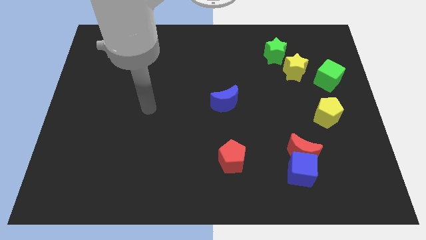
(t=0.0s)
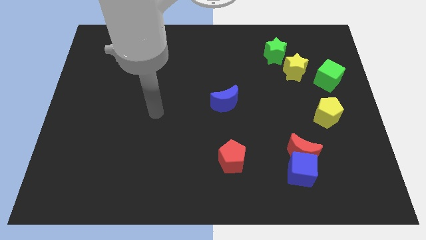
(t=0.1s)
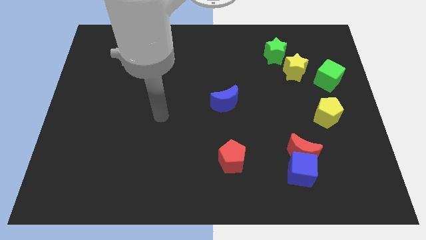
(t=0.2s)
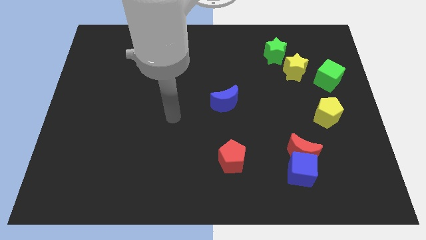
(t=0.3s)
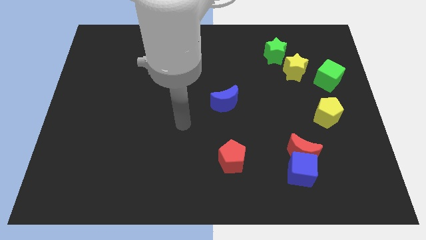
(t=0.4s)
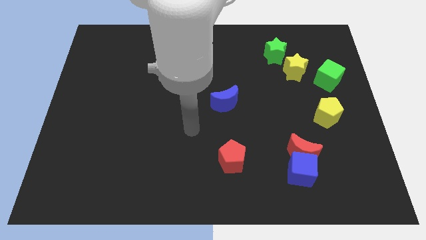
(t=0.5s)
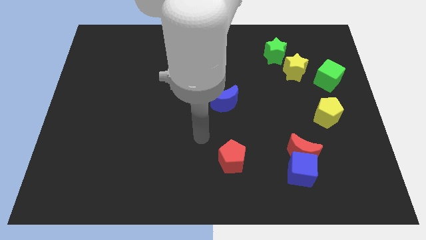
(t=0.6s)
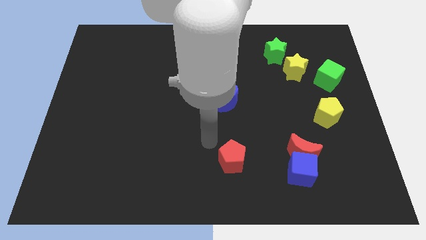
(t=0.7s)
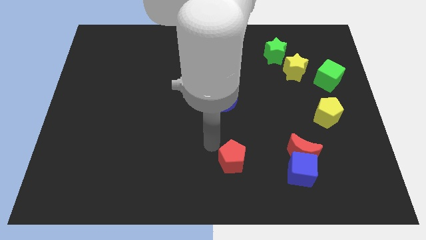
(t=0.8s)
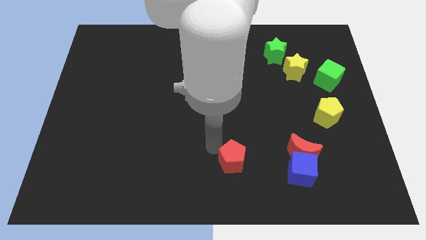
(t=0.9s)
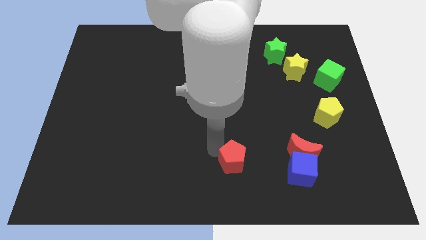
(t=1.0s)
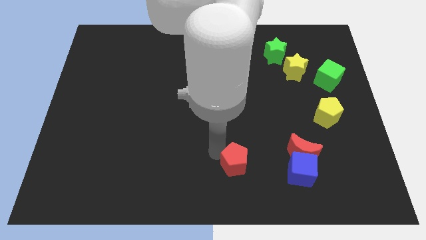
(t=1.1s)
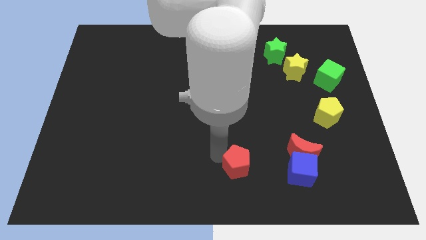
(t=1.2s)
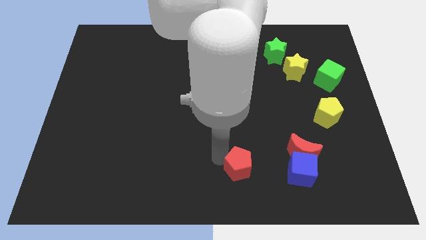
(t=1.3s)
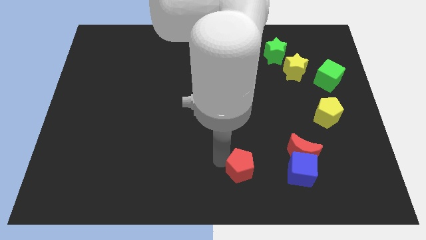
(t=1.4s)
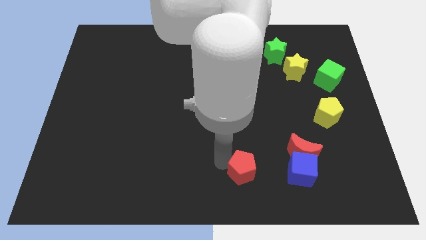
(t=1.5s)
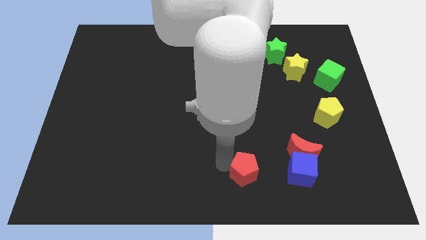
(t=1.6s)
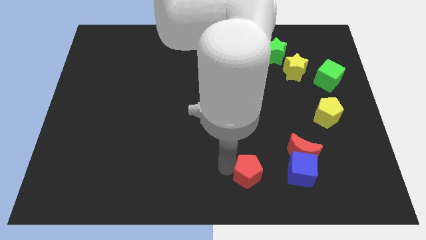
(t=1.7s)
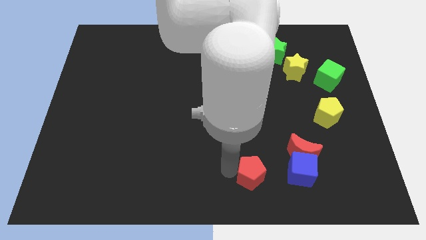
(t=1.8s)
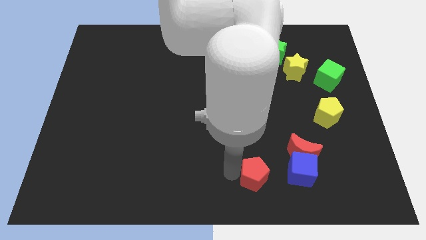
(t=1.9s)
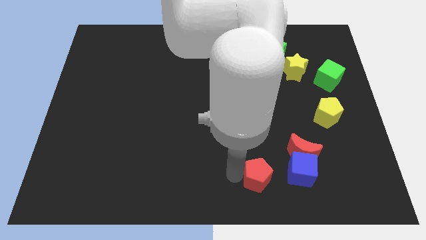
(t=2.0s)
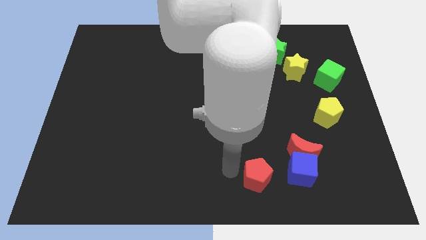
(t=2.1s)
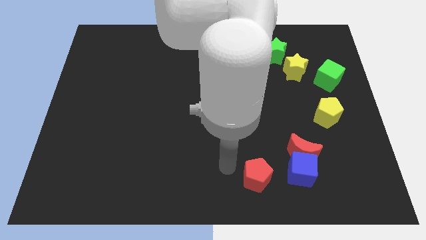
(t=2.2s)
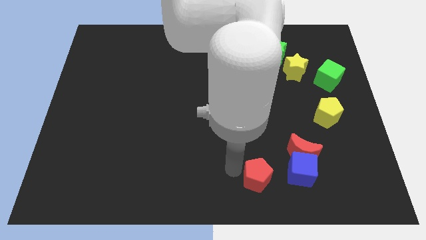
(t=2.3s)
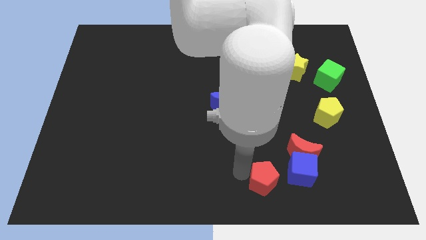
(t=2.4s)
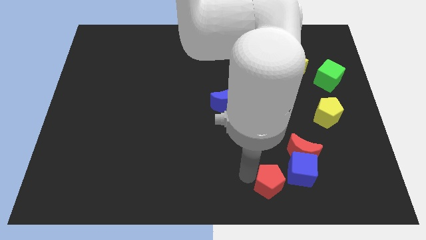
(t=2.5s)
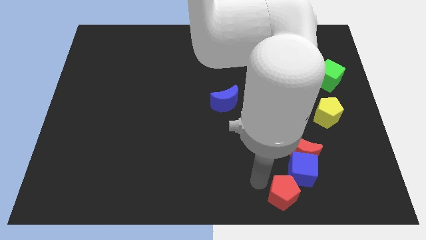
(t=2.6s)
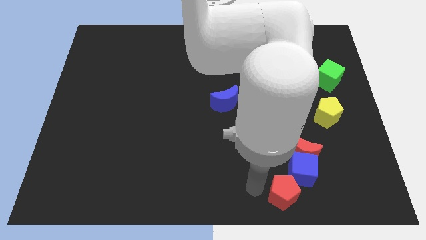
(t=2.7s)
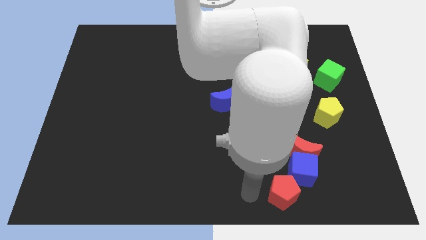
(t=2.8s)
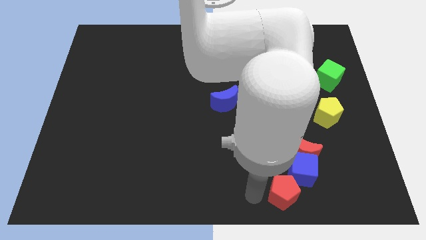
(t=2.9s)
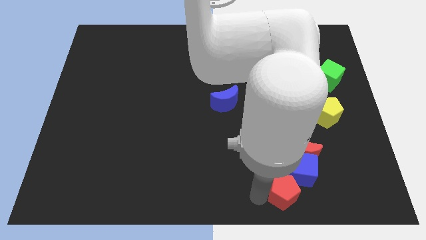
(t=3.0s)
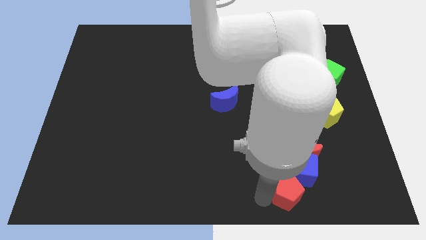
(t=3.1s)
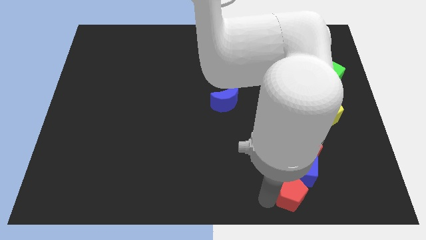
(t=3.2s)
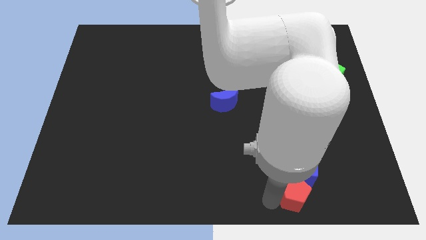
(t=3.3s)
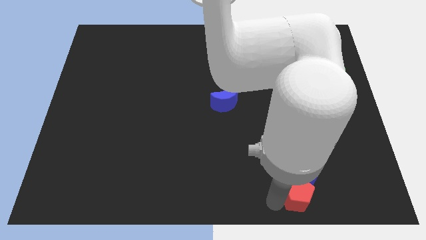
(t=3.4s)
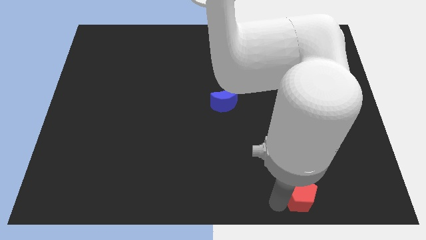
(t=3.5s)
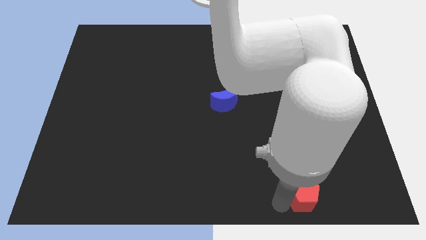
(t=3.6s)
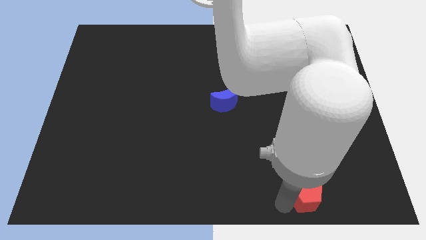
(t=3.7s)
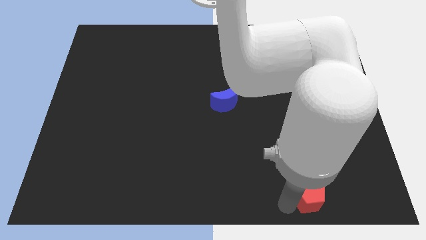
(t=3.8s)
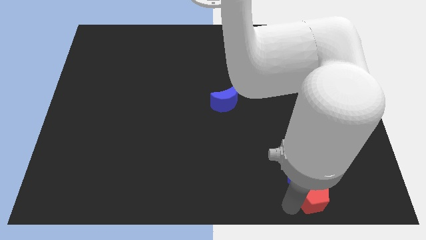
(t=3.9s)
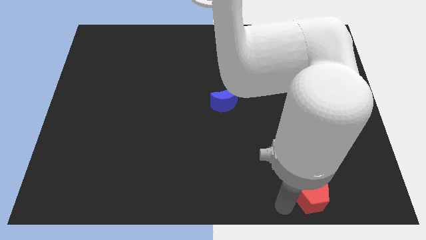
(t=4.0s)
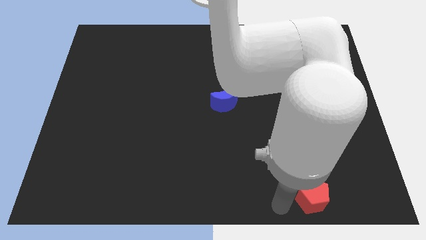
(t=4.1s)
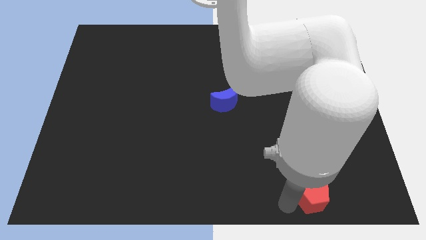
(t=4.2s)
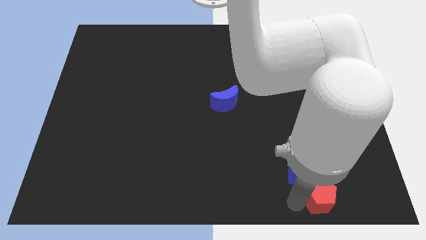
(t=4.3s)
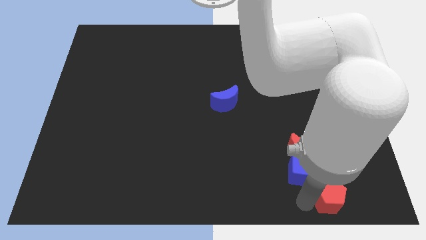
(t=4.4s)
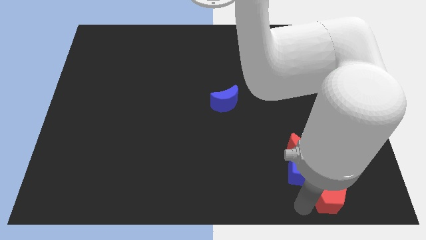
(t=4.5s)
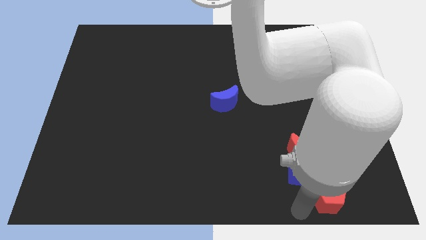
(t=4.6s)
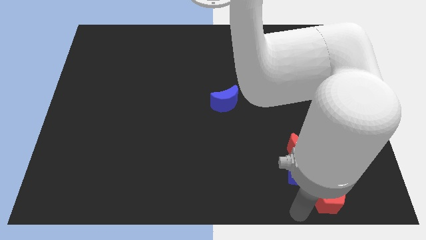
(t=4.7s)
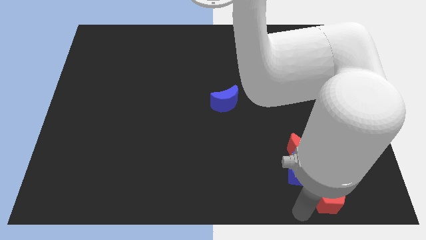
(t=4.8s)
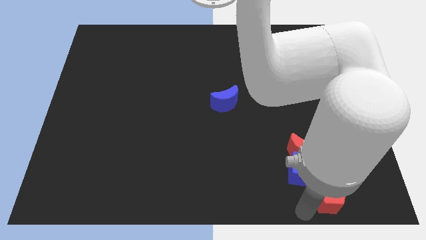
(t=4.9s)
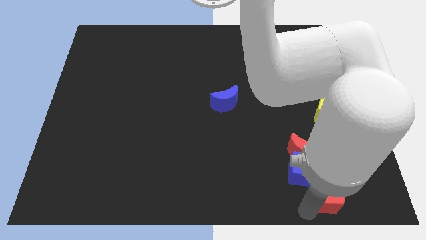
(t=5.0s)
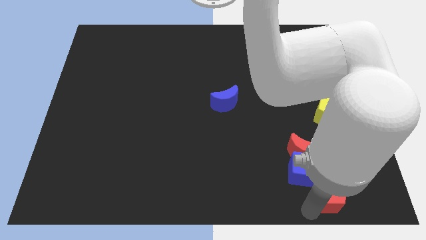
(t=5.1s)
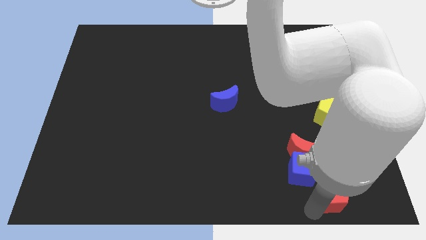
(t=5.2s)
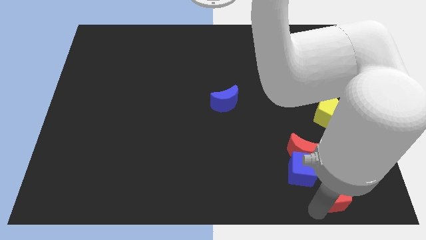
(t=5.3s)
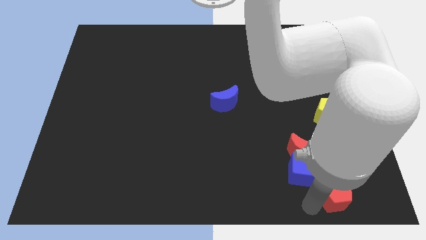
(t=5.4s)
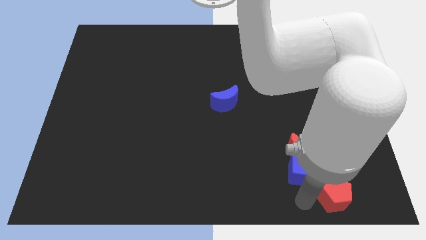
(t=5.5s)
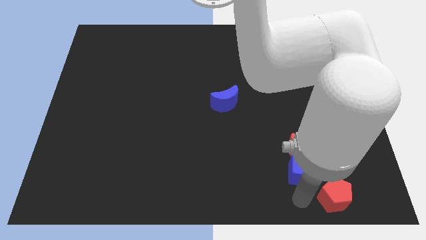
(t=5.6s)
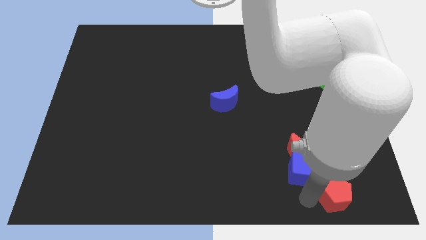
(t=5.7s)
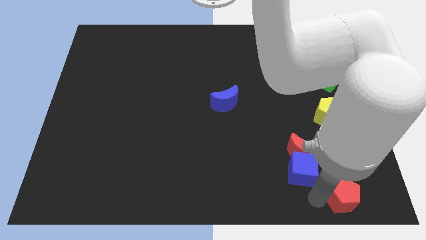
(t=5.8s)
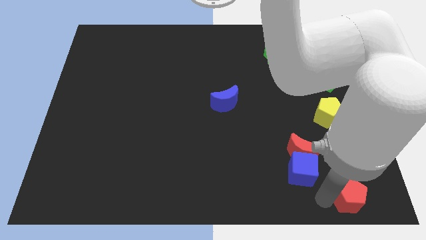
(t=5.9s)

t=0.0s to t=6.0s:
push the red pentagon to the bottom right of the board
